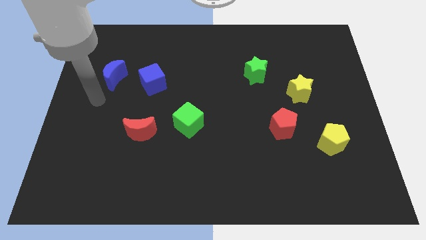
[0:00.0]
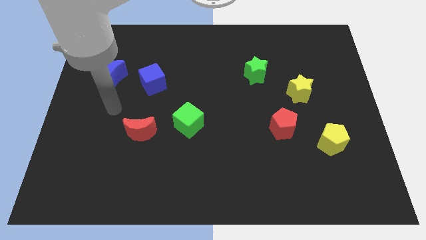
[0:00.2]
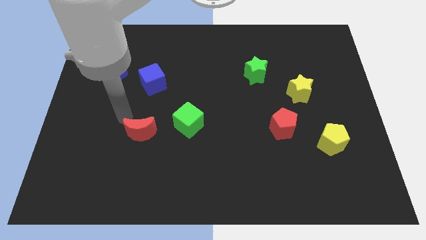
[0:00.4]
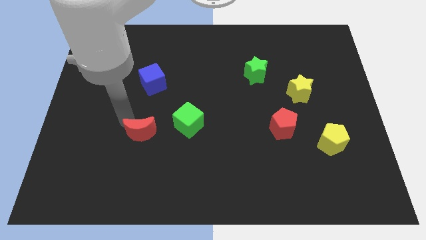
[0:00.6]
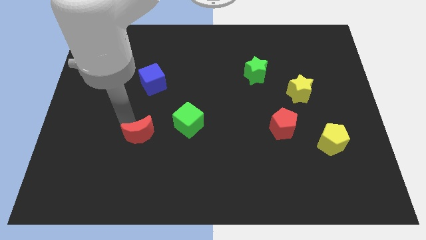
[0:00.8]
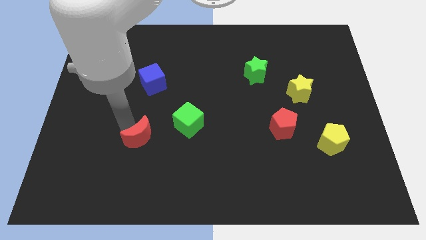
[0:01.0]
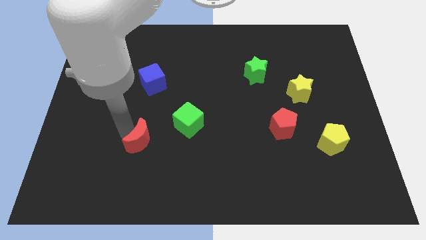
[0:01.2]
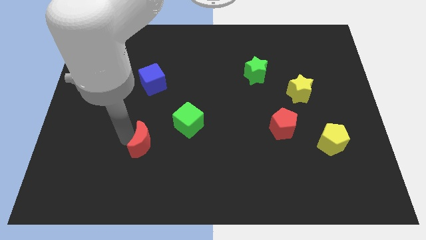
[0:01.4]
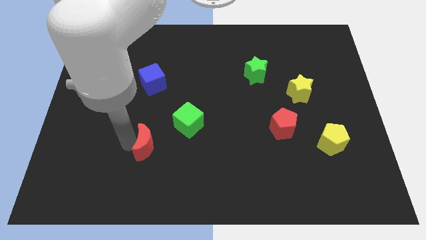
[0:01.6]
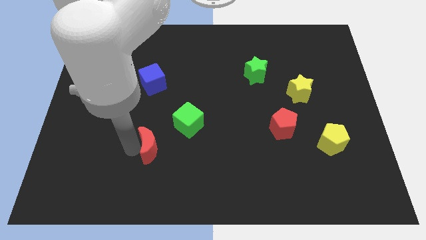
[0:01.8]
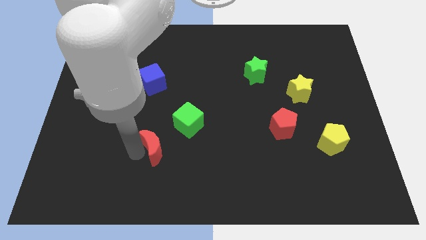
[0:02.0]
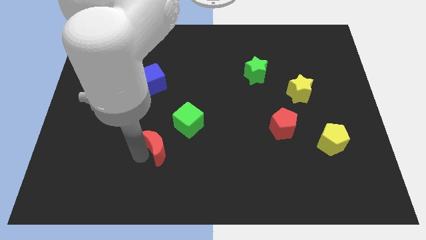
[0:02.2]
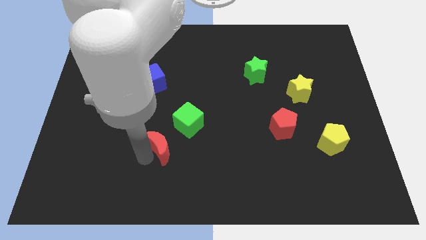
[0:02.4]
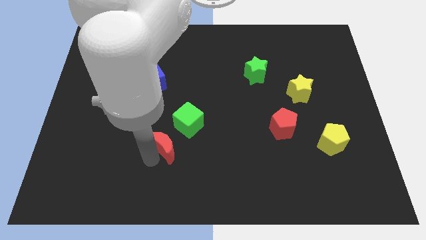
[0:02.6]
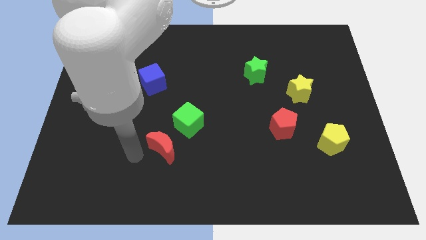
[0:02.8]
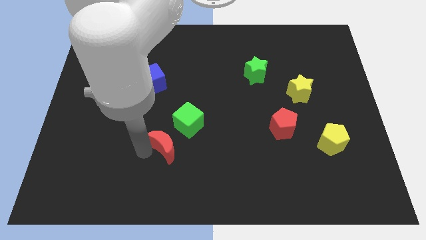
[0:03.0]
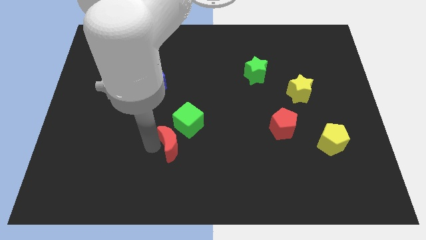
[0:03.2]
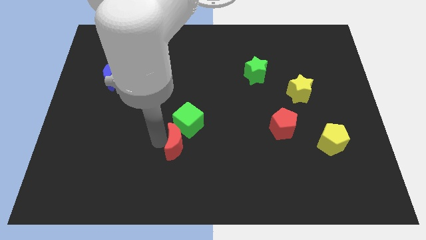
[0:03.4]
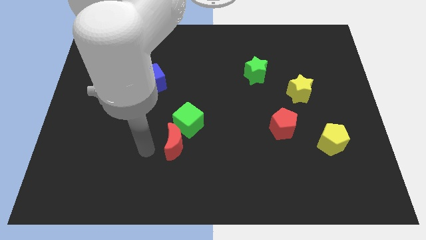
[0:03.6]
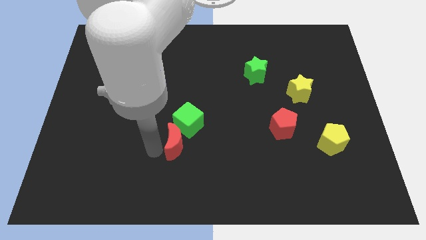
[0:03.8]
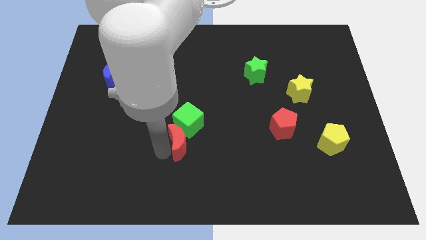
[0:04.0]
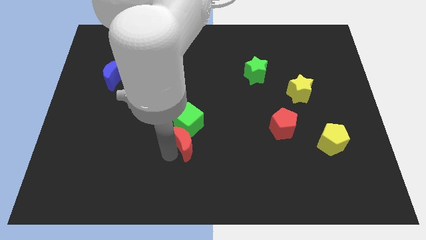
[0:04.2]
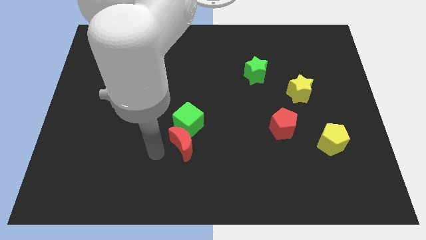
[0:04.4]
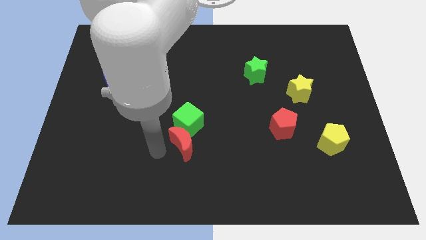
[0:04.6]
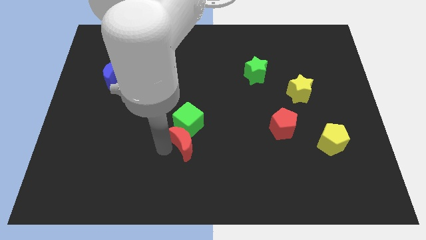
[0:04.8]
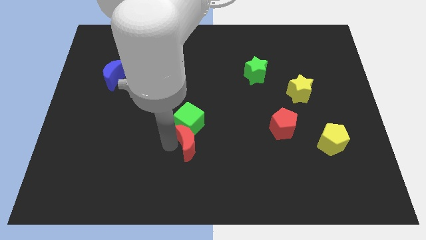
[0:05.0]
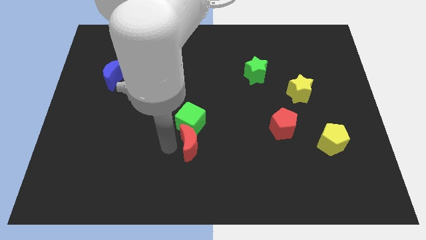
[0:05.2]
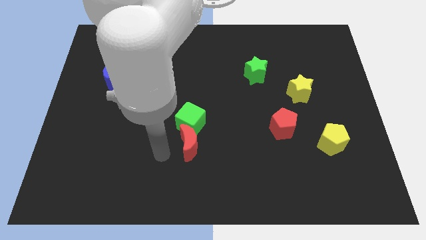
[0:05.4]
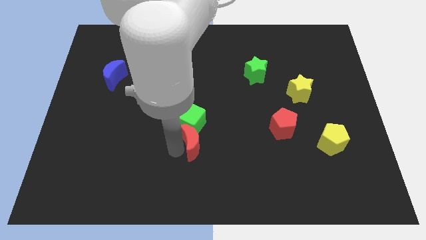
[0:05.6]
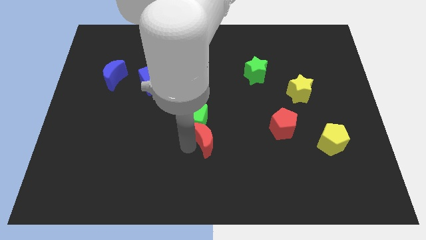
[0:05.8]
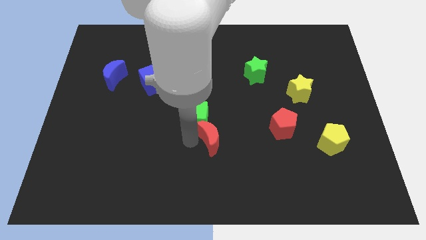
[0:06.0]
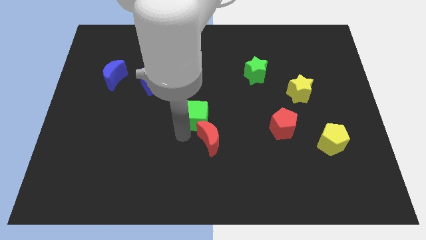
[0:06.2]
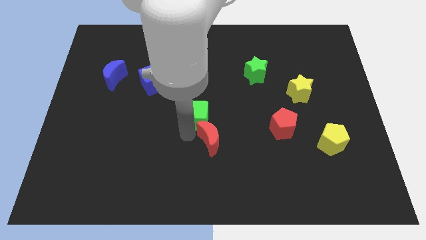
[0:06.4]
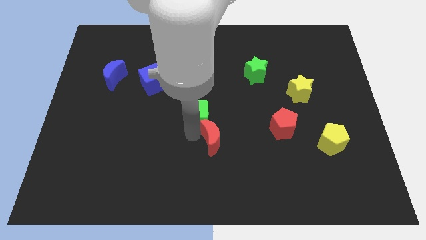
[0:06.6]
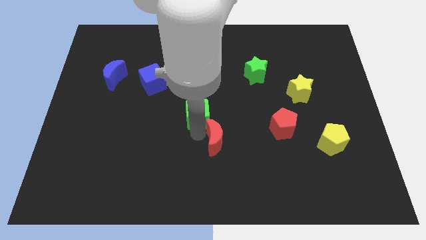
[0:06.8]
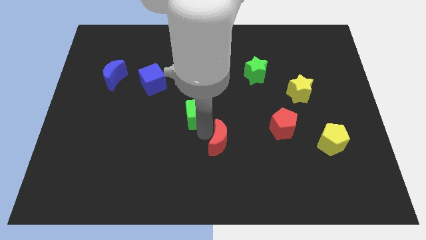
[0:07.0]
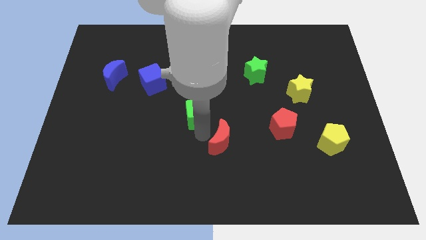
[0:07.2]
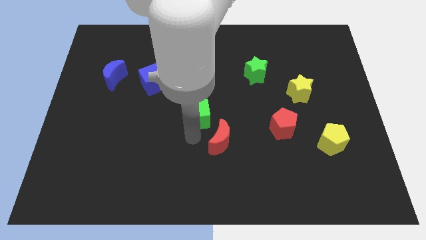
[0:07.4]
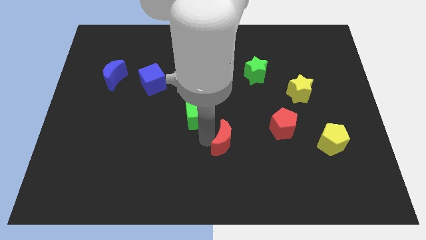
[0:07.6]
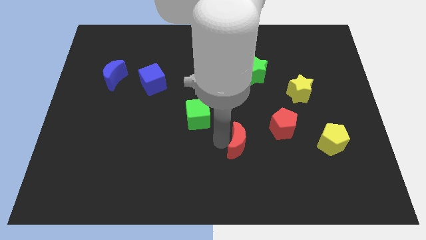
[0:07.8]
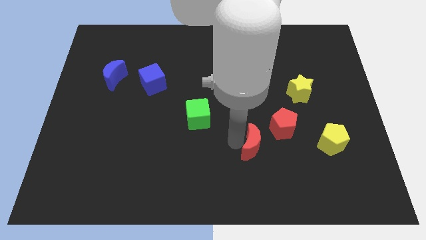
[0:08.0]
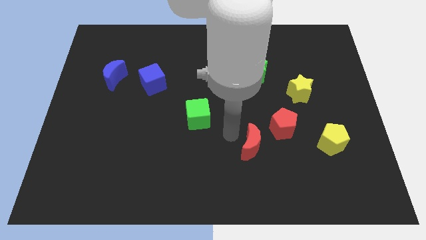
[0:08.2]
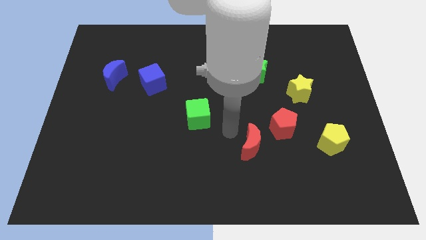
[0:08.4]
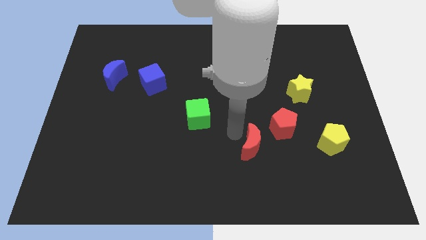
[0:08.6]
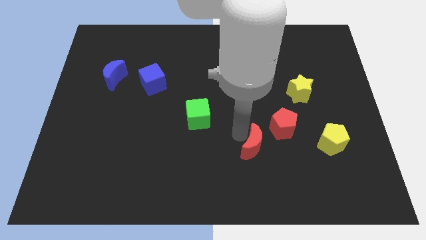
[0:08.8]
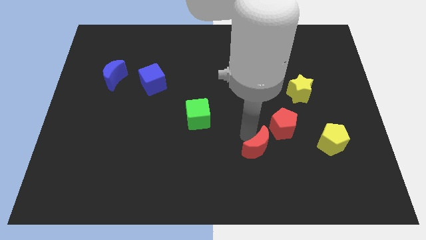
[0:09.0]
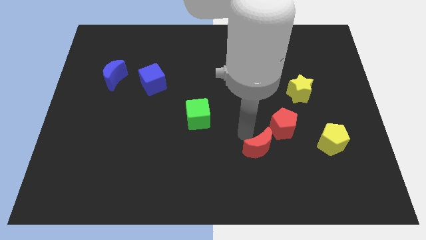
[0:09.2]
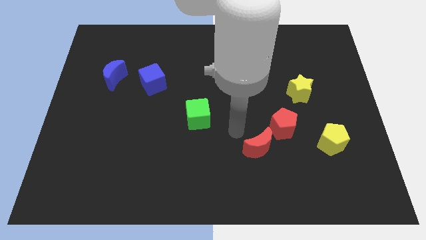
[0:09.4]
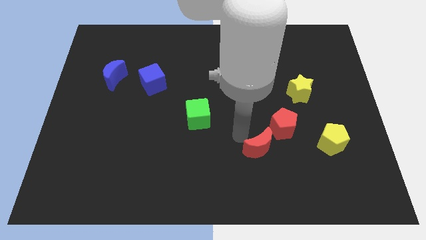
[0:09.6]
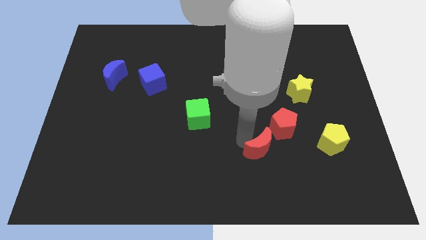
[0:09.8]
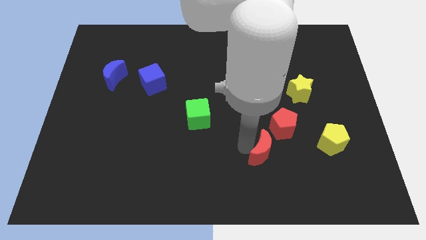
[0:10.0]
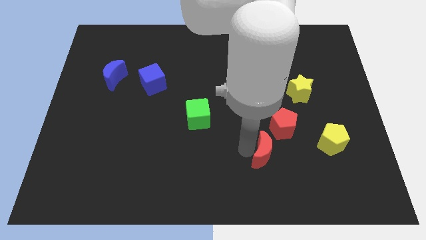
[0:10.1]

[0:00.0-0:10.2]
move the red moon to the bottom side of the red pentagon

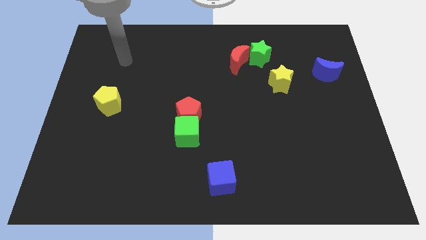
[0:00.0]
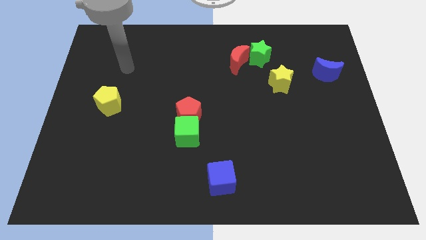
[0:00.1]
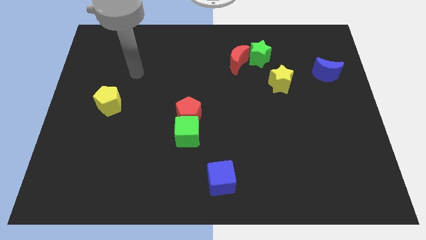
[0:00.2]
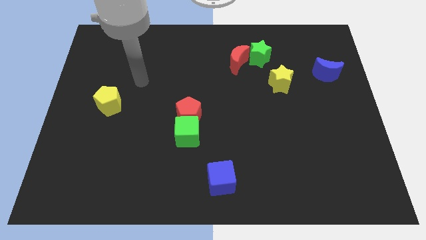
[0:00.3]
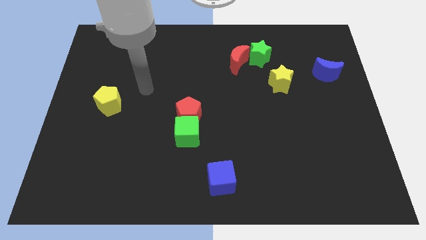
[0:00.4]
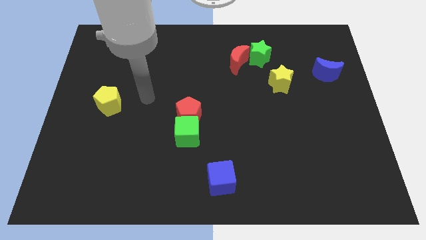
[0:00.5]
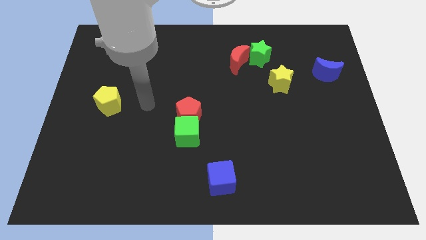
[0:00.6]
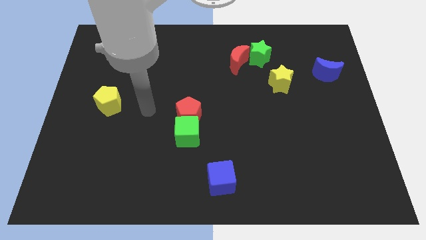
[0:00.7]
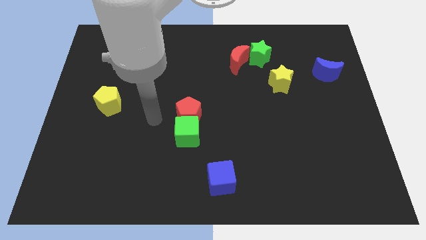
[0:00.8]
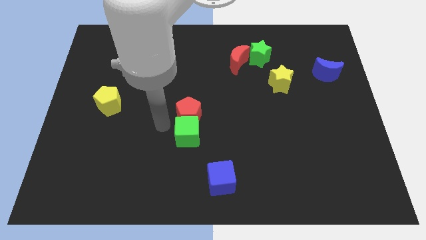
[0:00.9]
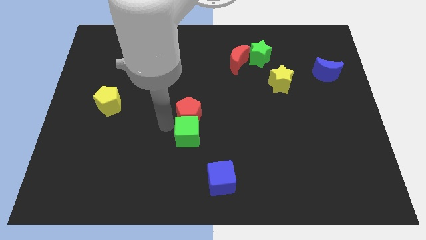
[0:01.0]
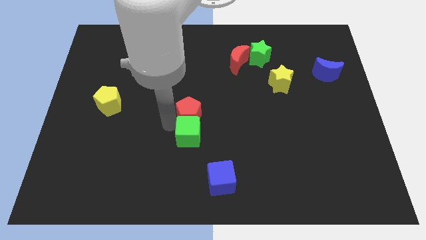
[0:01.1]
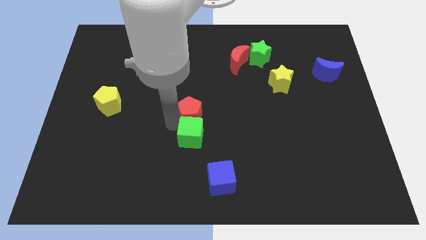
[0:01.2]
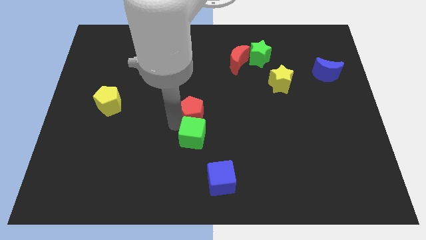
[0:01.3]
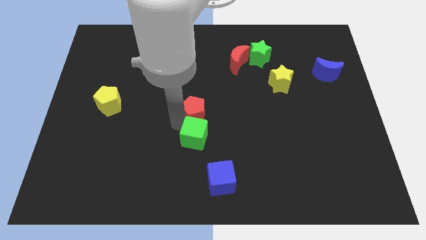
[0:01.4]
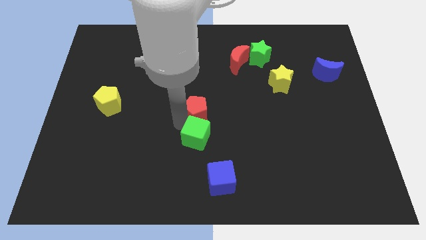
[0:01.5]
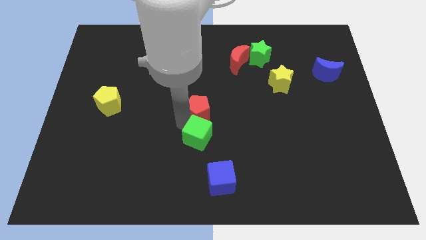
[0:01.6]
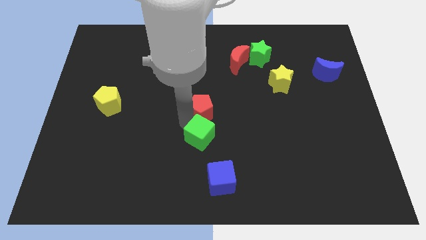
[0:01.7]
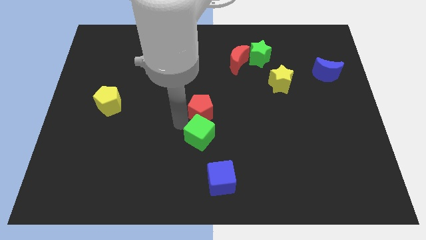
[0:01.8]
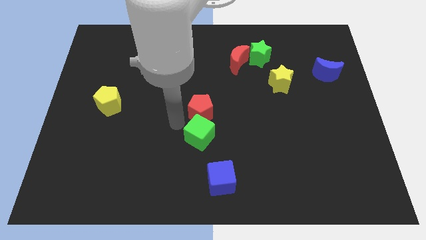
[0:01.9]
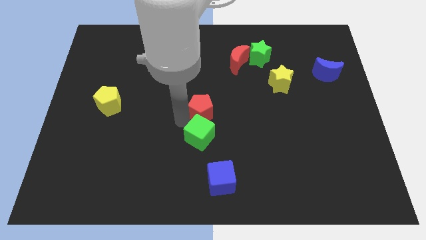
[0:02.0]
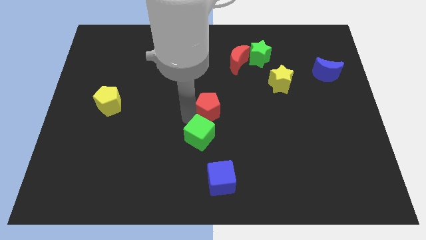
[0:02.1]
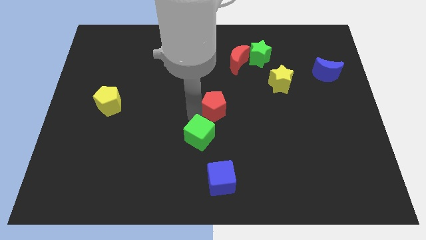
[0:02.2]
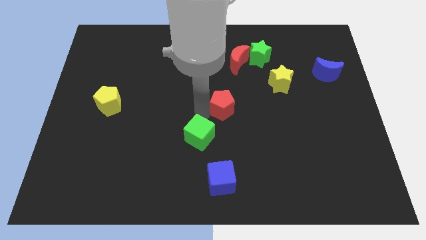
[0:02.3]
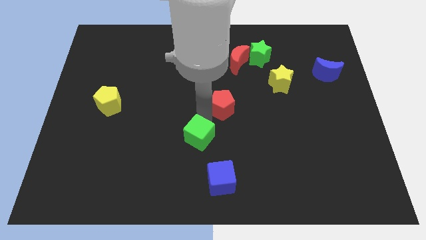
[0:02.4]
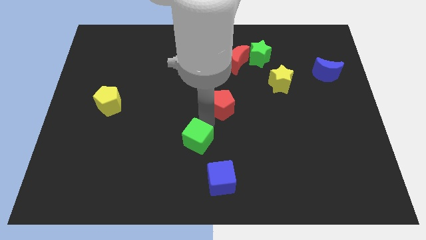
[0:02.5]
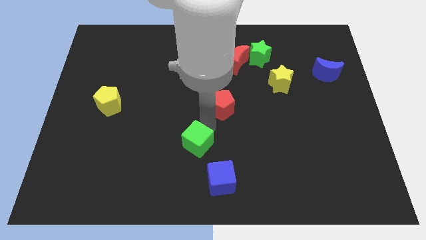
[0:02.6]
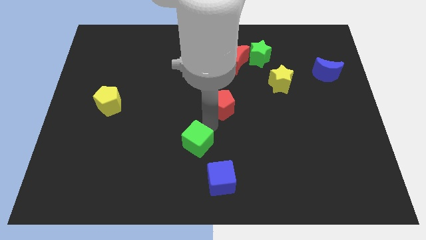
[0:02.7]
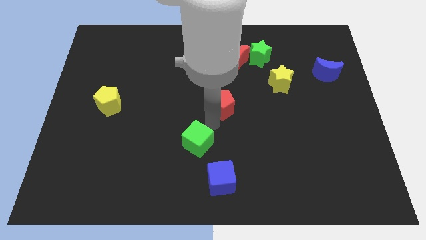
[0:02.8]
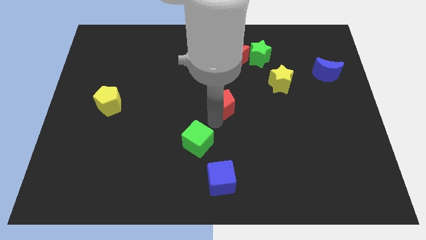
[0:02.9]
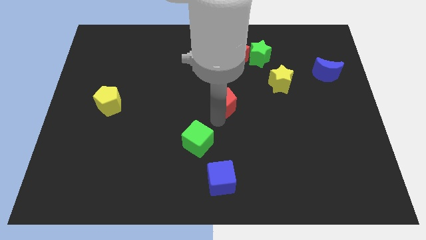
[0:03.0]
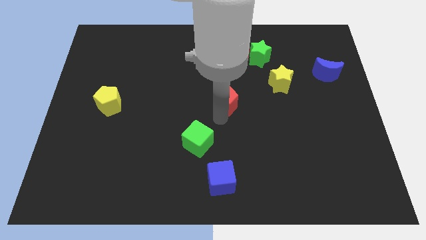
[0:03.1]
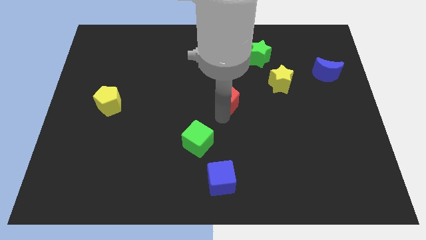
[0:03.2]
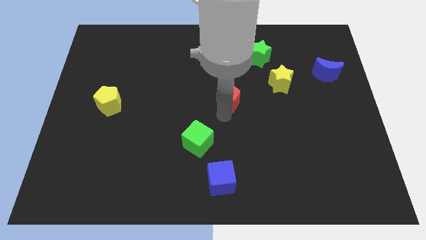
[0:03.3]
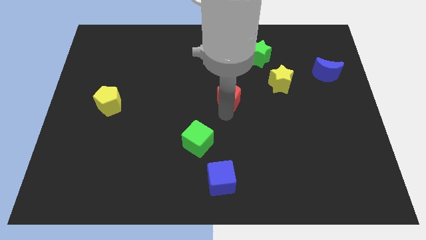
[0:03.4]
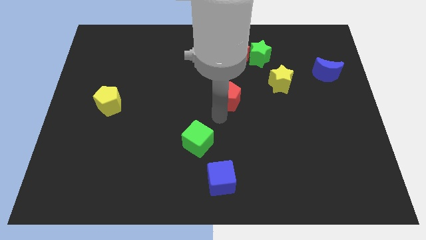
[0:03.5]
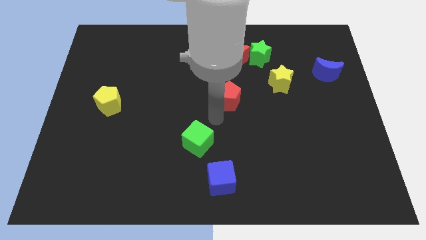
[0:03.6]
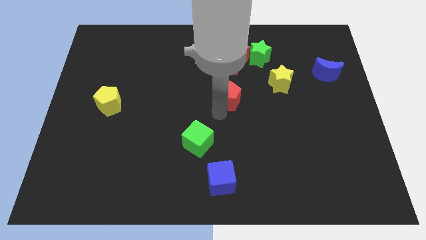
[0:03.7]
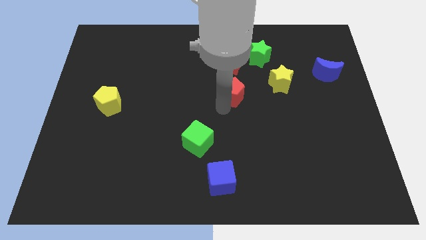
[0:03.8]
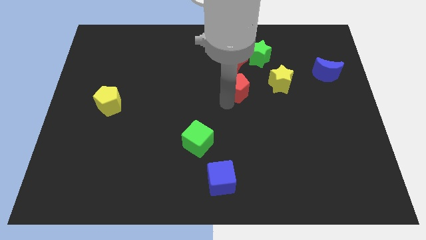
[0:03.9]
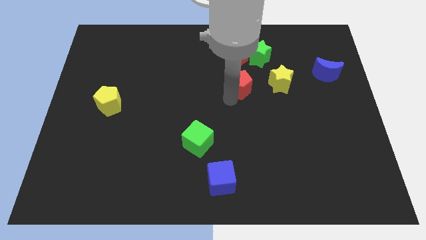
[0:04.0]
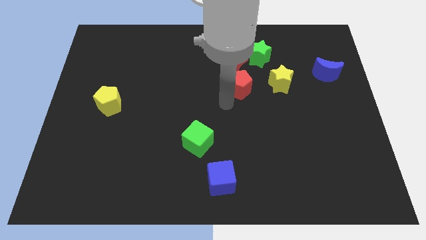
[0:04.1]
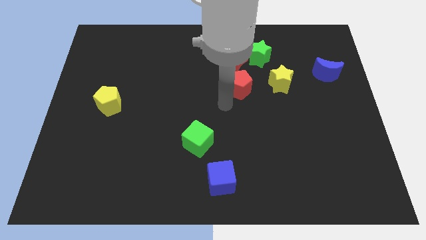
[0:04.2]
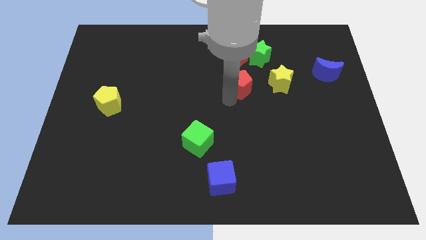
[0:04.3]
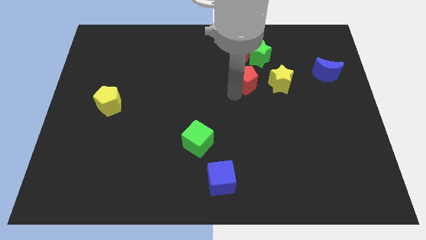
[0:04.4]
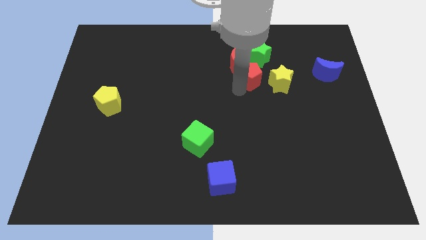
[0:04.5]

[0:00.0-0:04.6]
slide the red pentagon to the top left of the yellow star
